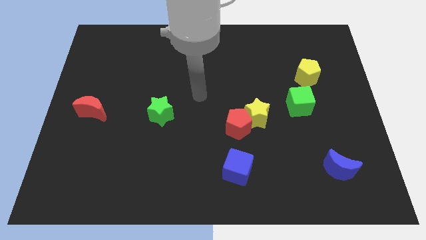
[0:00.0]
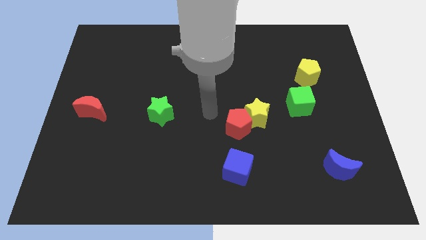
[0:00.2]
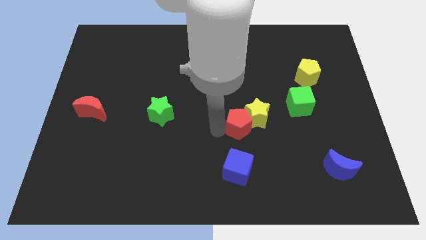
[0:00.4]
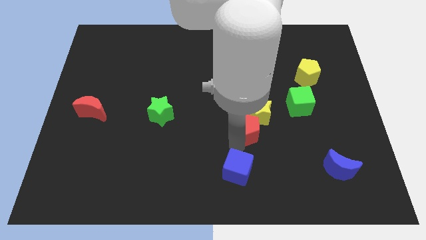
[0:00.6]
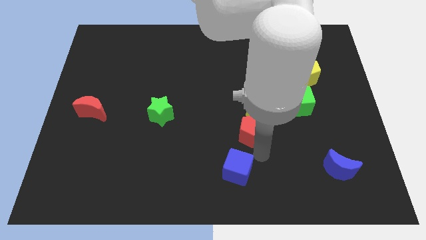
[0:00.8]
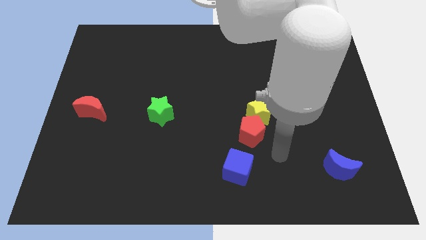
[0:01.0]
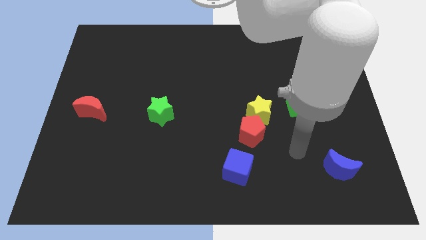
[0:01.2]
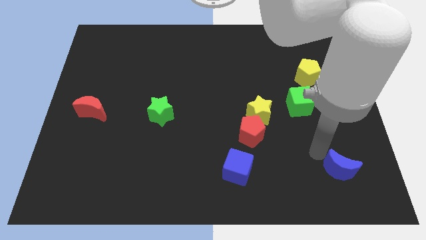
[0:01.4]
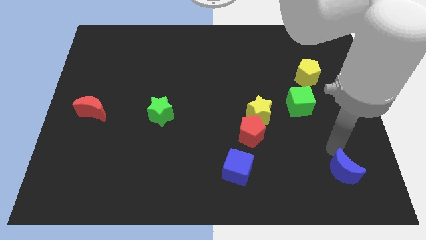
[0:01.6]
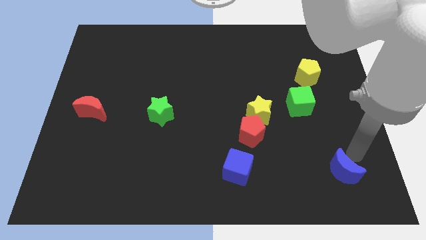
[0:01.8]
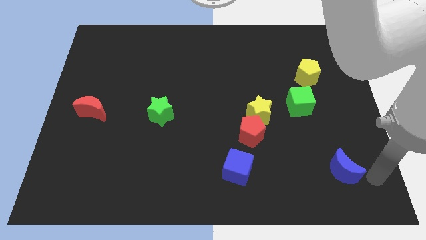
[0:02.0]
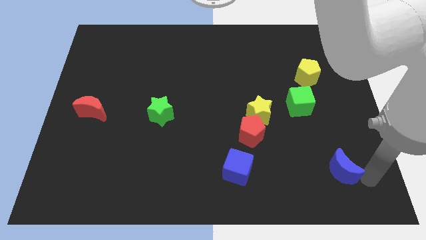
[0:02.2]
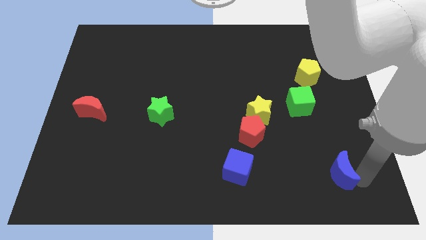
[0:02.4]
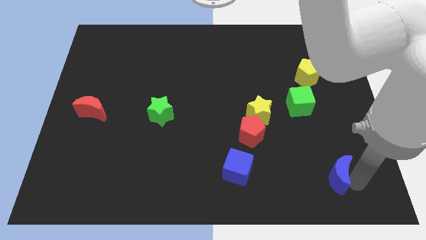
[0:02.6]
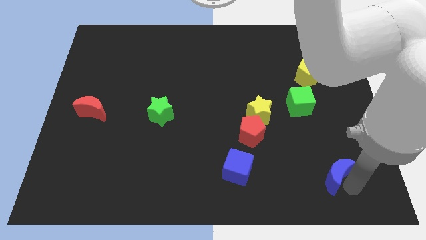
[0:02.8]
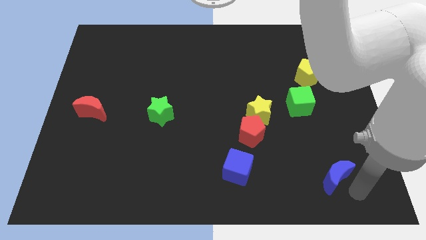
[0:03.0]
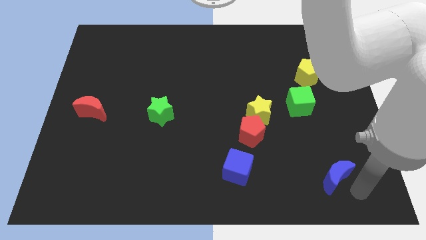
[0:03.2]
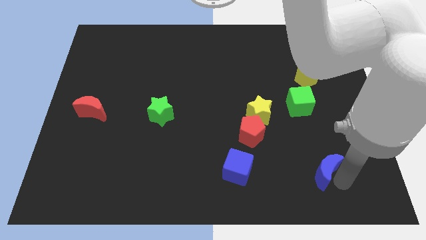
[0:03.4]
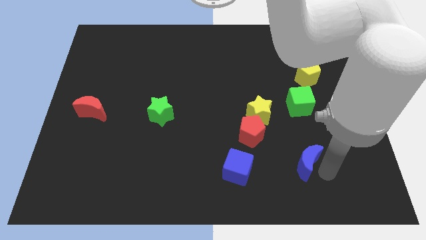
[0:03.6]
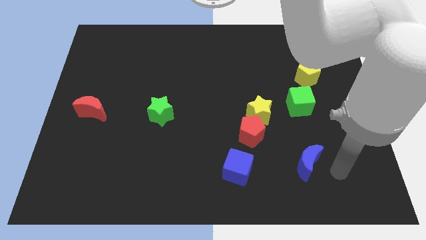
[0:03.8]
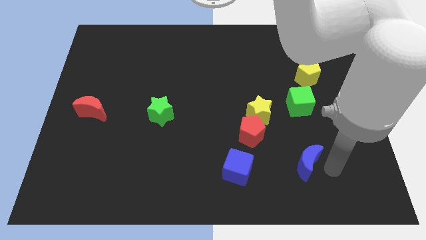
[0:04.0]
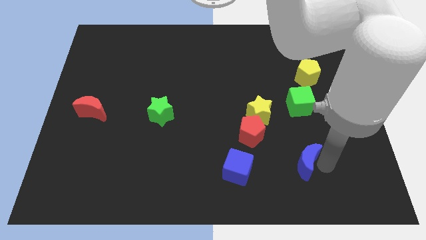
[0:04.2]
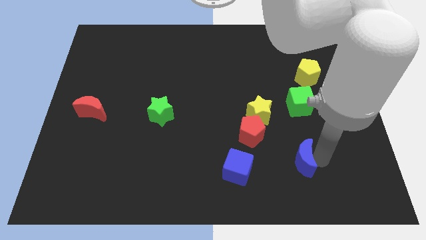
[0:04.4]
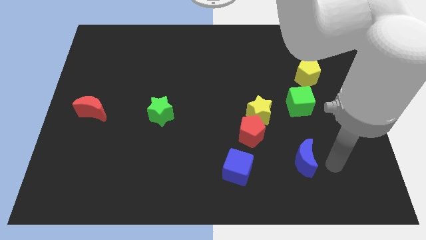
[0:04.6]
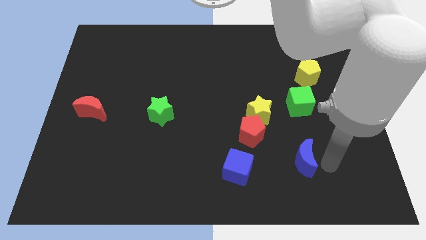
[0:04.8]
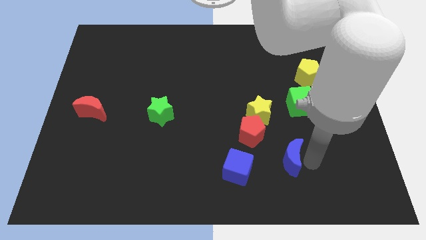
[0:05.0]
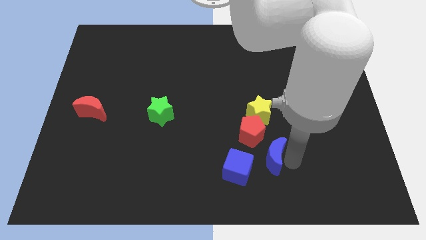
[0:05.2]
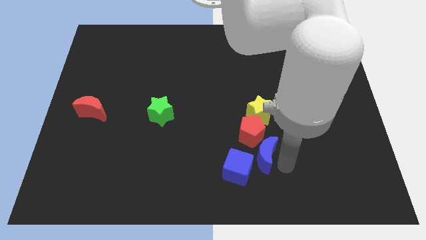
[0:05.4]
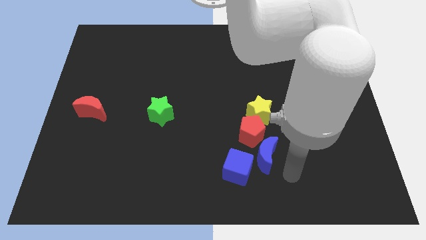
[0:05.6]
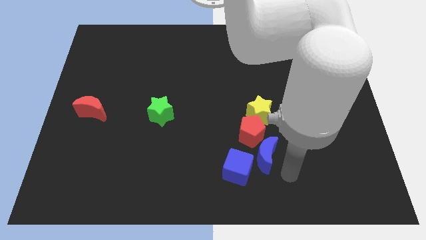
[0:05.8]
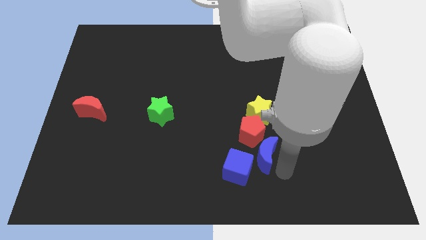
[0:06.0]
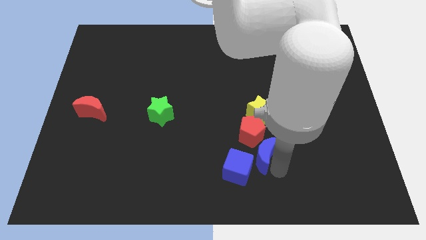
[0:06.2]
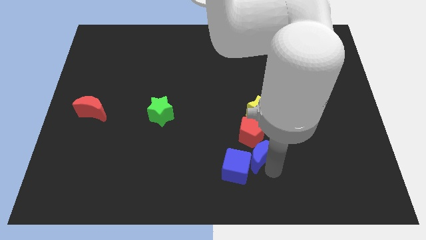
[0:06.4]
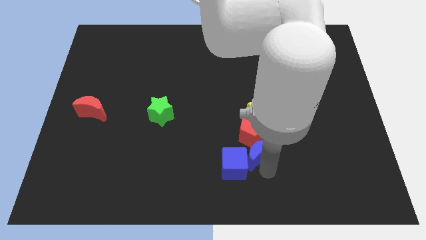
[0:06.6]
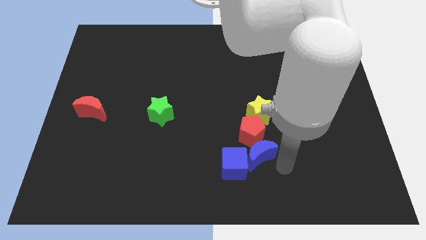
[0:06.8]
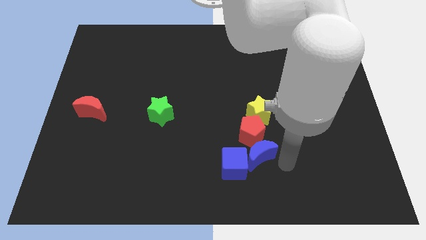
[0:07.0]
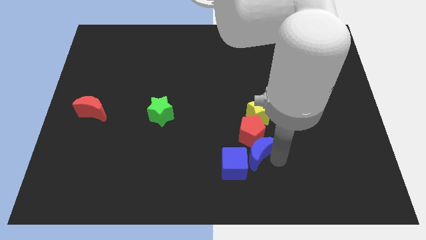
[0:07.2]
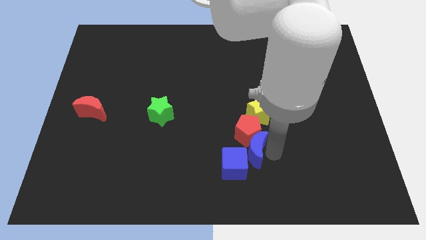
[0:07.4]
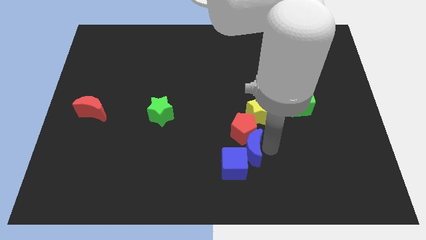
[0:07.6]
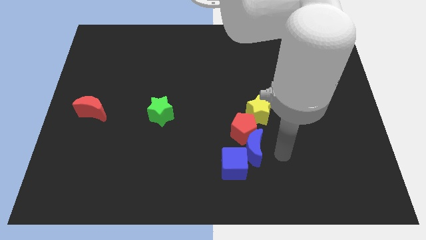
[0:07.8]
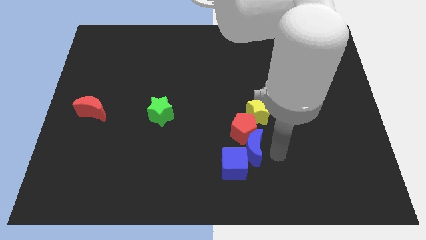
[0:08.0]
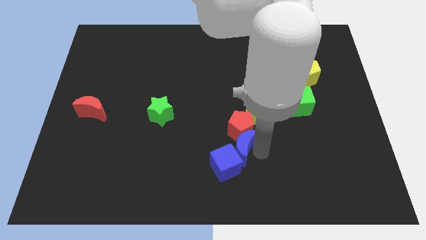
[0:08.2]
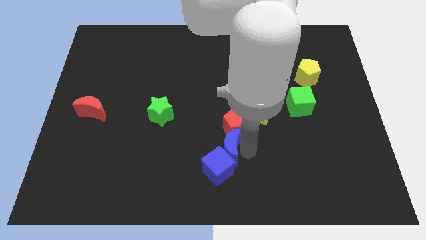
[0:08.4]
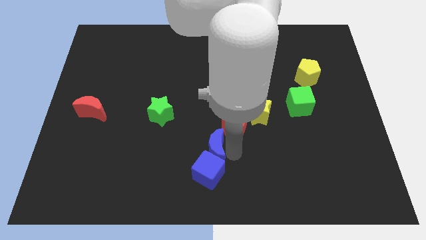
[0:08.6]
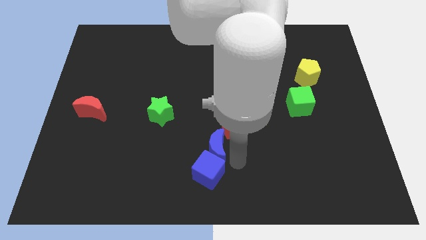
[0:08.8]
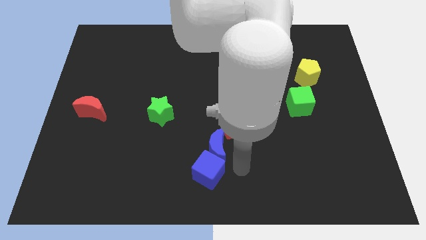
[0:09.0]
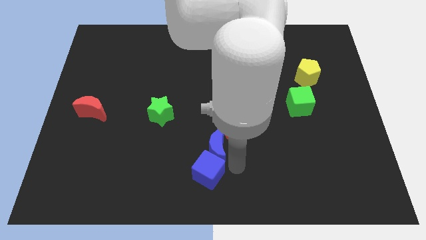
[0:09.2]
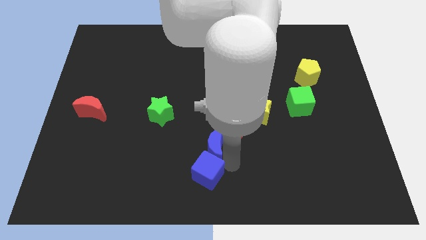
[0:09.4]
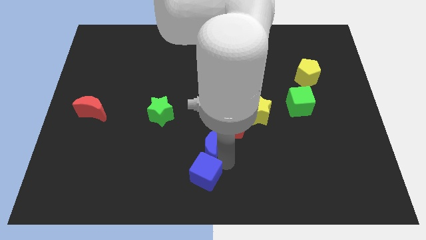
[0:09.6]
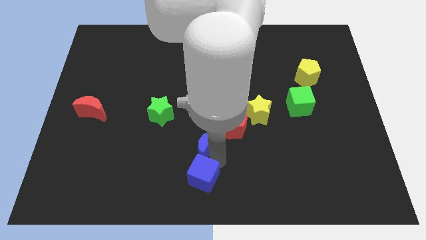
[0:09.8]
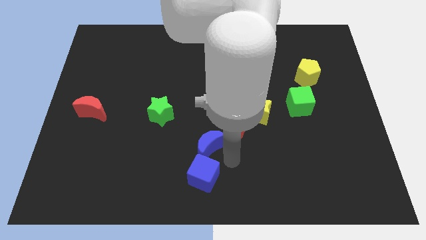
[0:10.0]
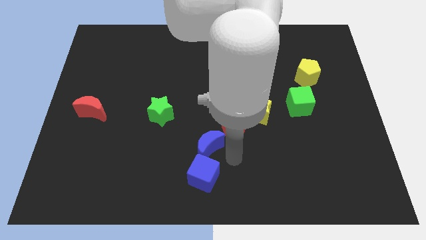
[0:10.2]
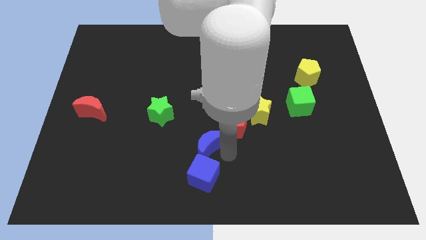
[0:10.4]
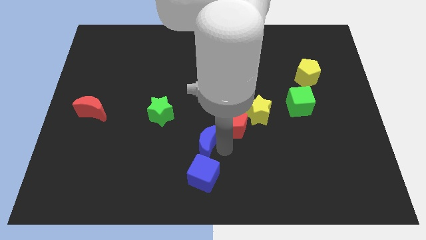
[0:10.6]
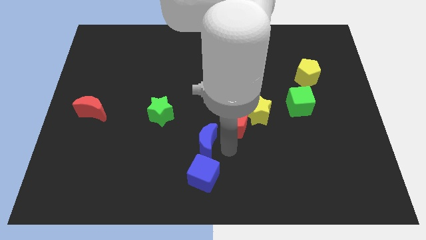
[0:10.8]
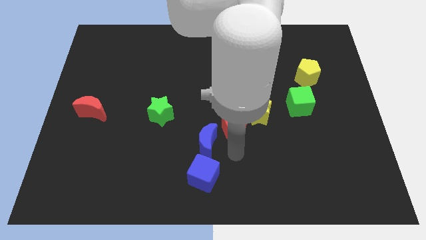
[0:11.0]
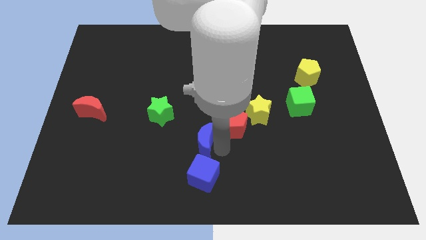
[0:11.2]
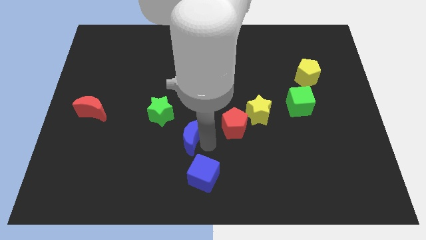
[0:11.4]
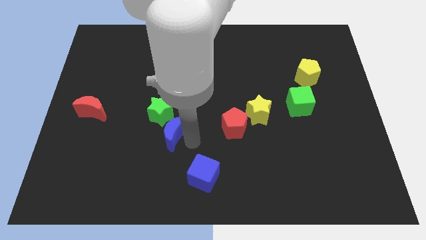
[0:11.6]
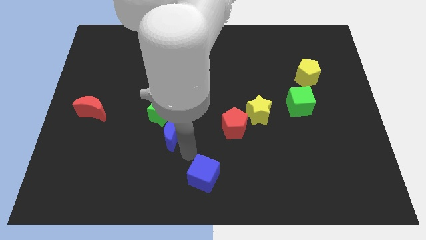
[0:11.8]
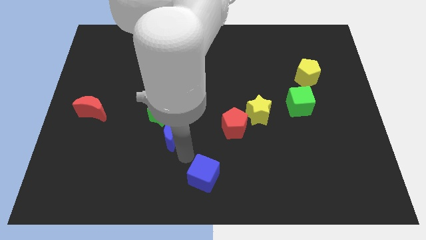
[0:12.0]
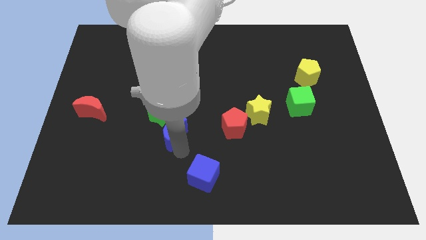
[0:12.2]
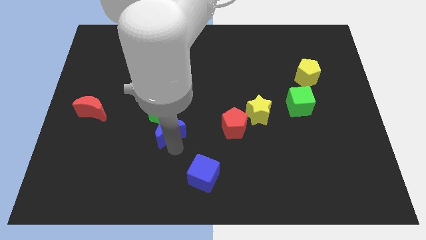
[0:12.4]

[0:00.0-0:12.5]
put the blue moon close to the green star

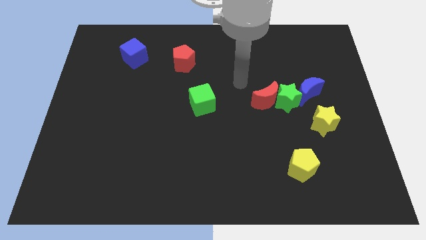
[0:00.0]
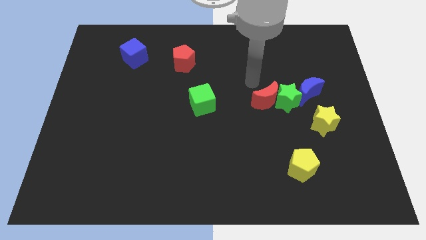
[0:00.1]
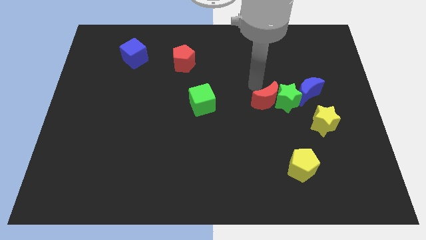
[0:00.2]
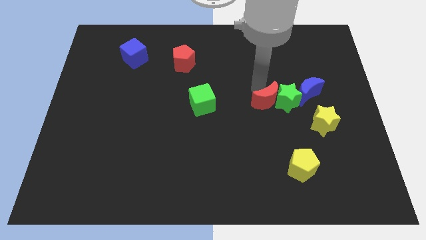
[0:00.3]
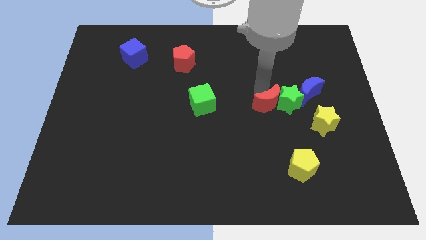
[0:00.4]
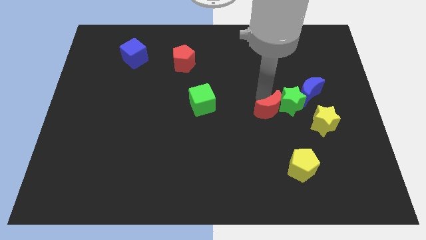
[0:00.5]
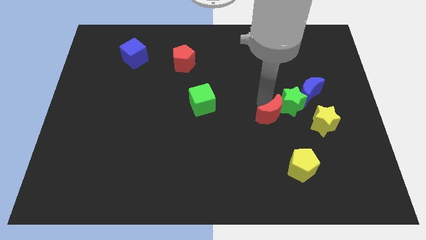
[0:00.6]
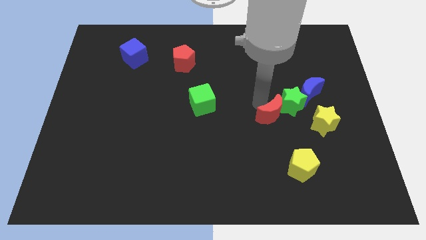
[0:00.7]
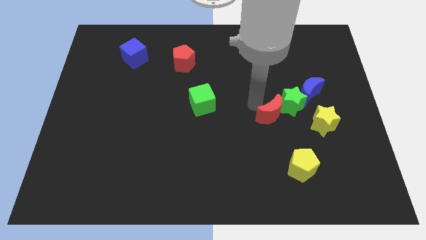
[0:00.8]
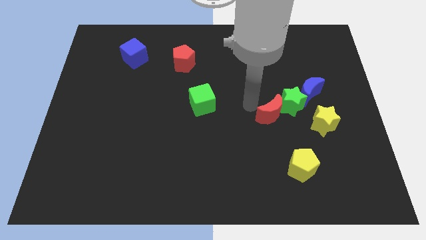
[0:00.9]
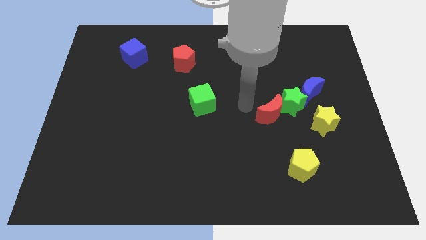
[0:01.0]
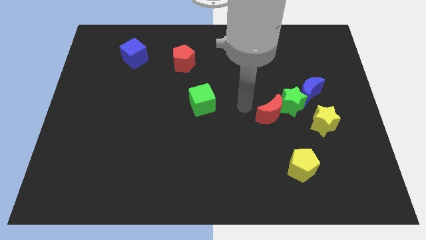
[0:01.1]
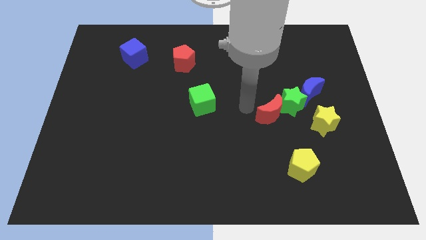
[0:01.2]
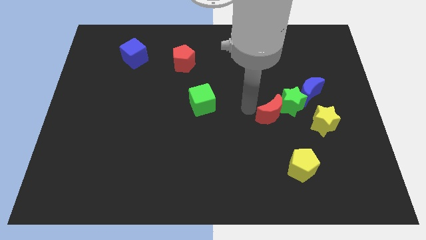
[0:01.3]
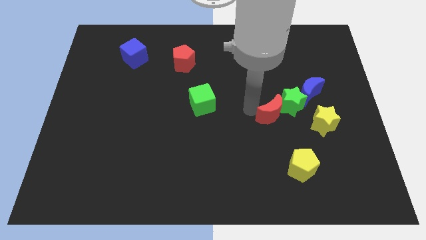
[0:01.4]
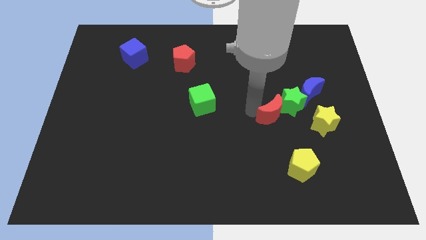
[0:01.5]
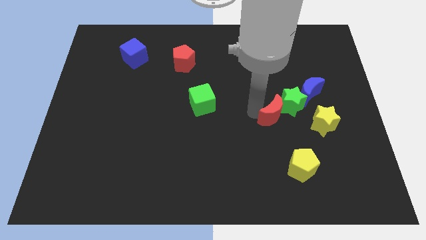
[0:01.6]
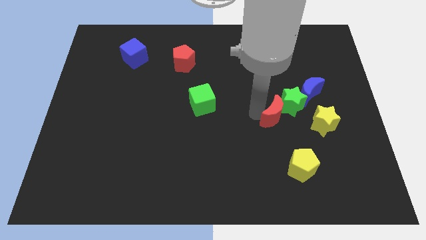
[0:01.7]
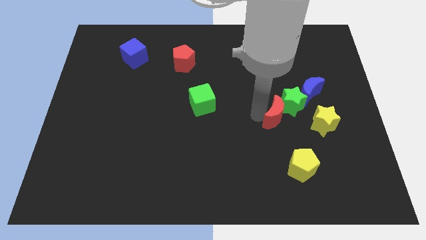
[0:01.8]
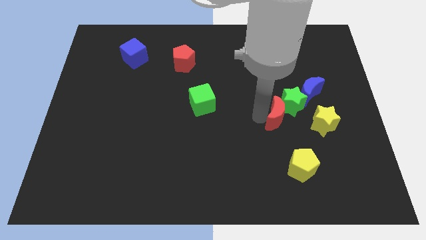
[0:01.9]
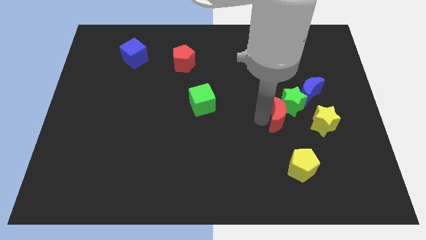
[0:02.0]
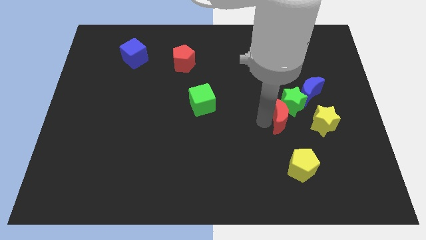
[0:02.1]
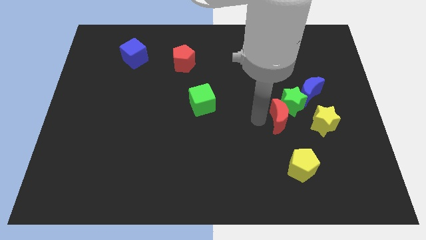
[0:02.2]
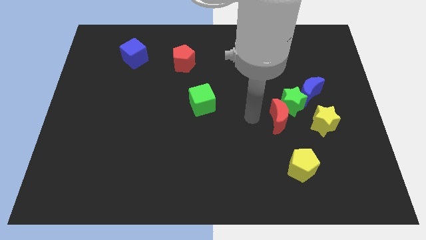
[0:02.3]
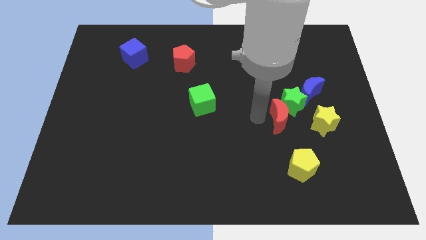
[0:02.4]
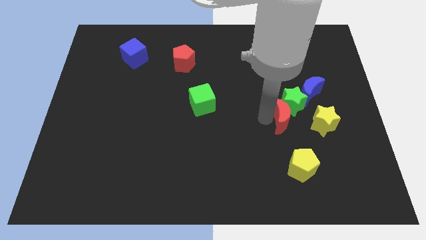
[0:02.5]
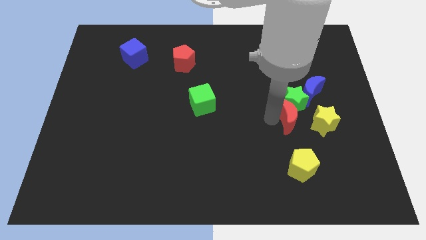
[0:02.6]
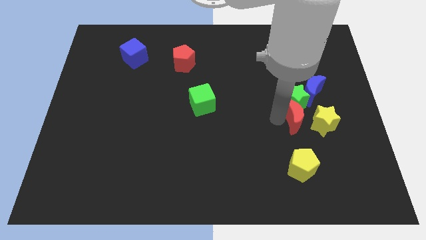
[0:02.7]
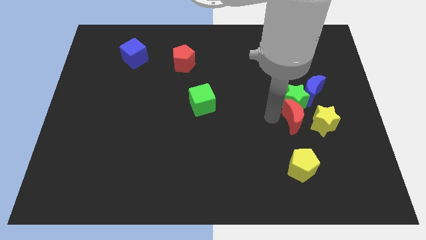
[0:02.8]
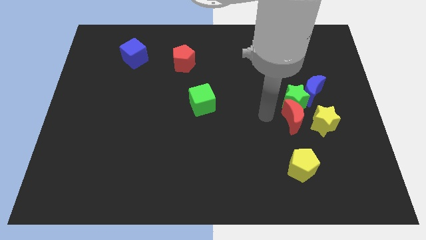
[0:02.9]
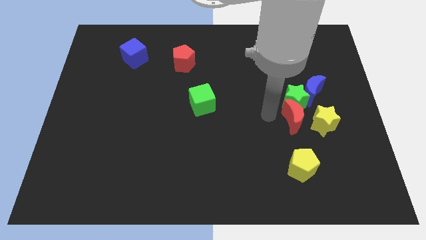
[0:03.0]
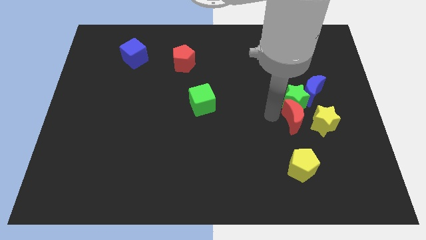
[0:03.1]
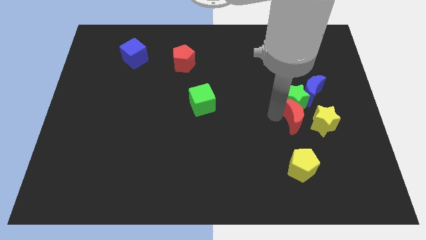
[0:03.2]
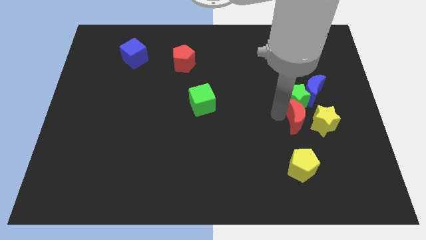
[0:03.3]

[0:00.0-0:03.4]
push the red moon to the yellow star
